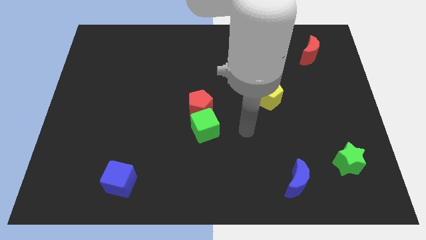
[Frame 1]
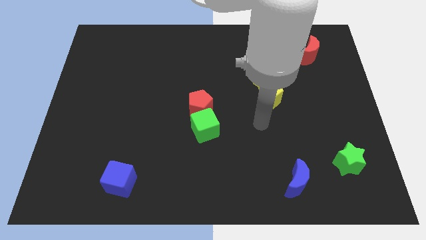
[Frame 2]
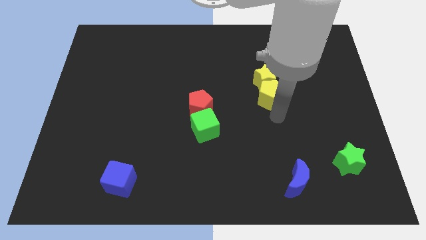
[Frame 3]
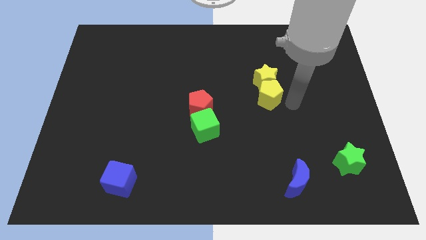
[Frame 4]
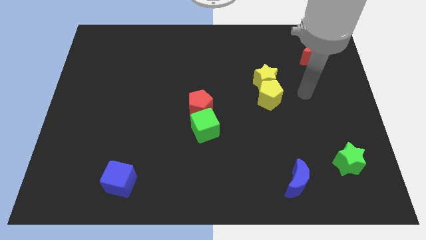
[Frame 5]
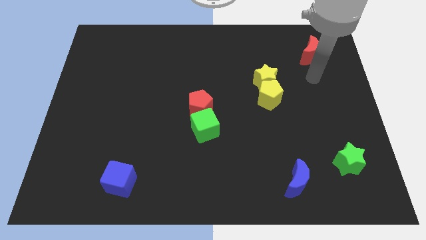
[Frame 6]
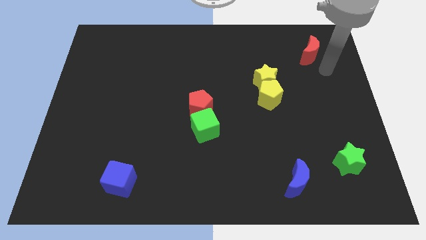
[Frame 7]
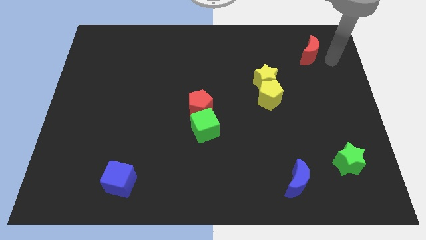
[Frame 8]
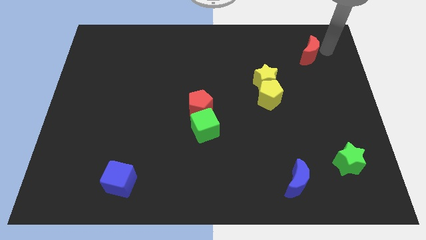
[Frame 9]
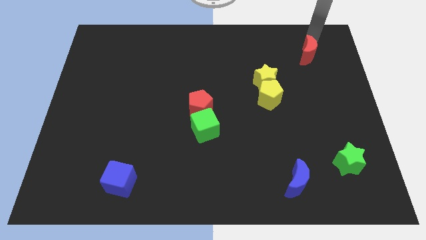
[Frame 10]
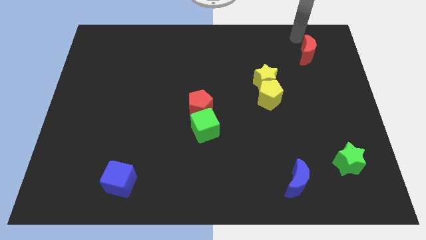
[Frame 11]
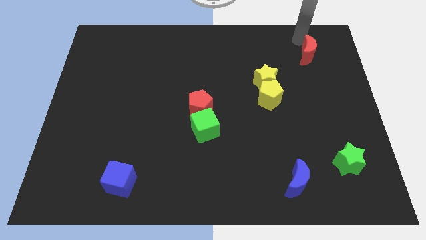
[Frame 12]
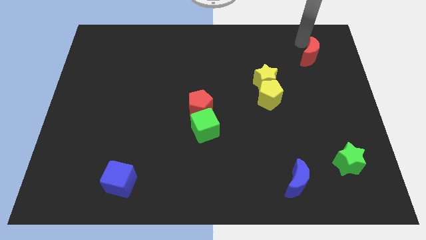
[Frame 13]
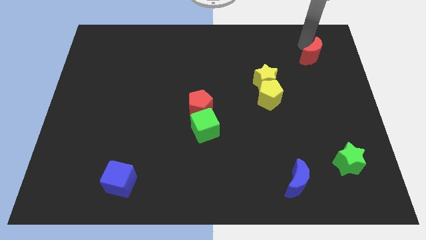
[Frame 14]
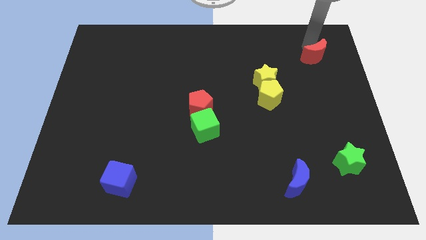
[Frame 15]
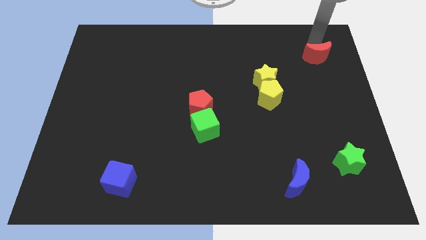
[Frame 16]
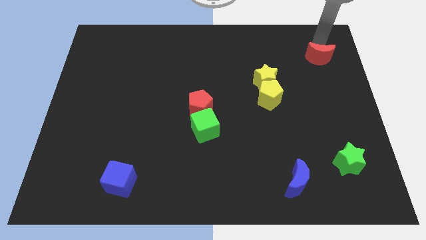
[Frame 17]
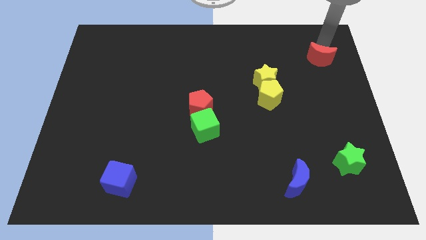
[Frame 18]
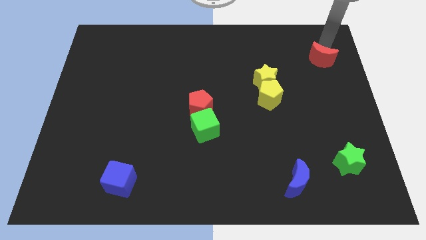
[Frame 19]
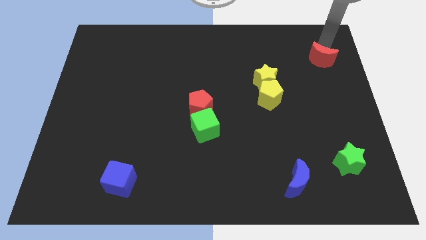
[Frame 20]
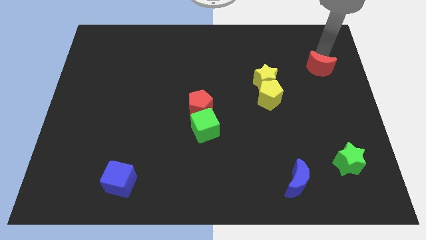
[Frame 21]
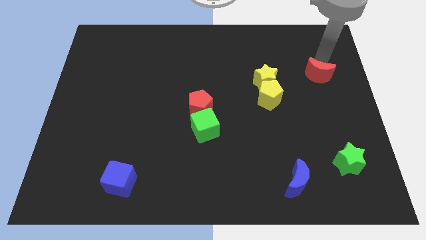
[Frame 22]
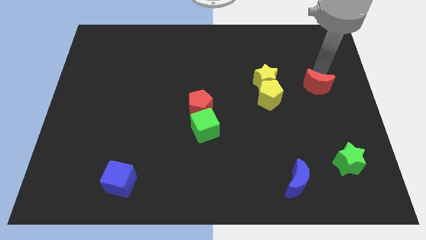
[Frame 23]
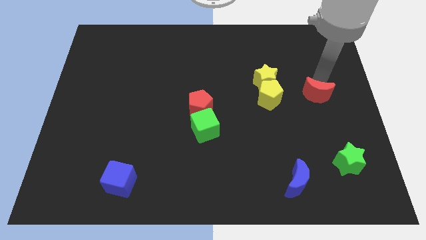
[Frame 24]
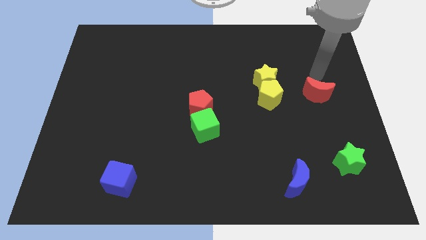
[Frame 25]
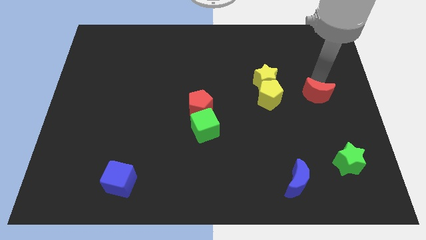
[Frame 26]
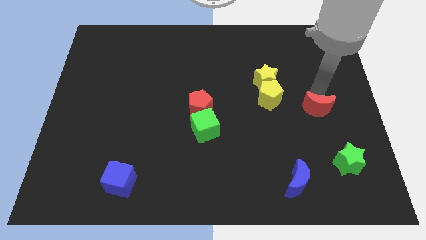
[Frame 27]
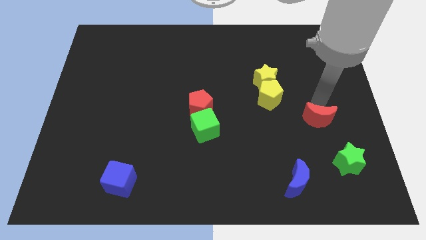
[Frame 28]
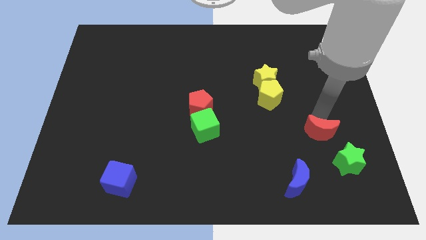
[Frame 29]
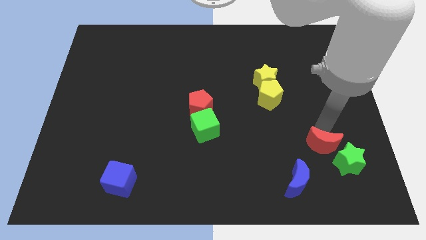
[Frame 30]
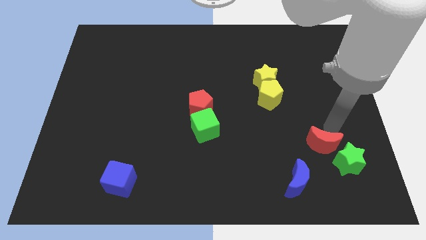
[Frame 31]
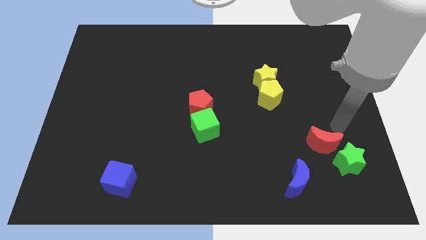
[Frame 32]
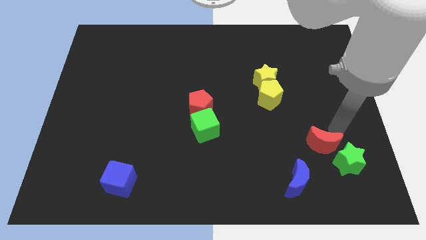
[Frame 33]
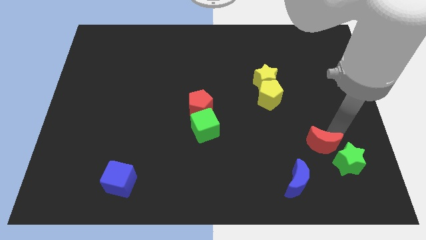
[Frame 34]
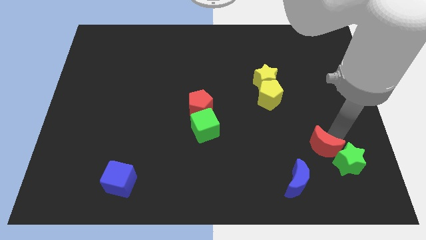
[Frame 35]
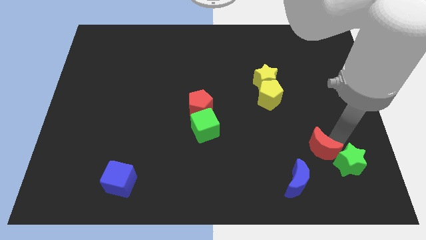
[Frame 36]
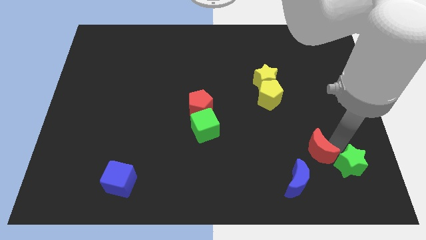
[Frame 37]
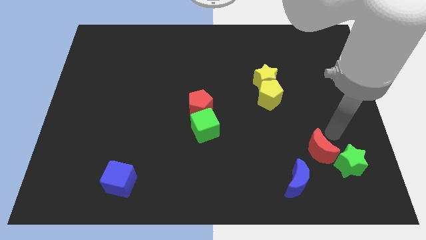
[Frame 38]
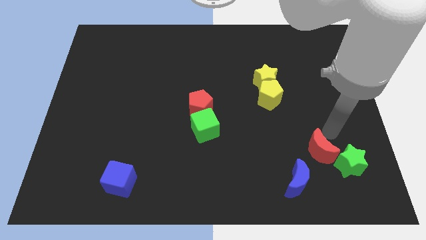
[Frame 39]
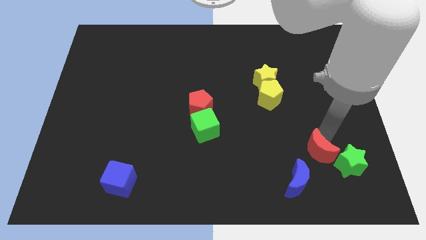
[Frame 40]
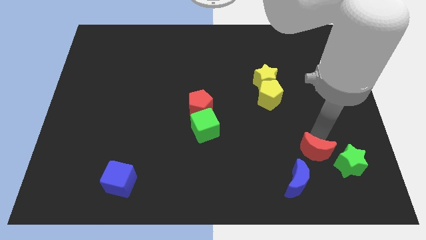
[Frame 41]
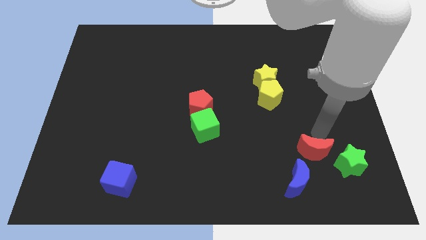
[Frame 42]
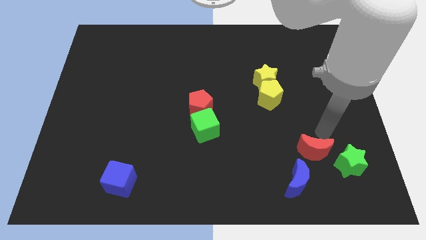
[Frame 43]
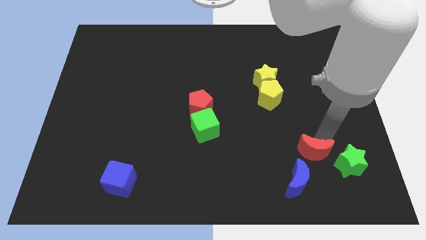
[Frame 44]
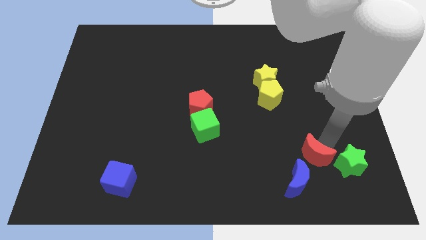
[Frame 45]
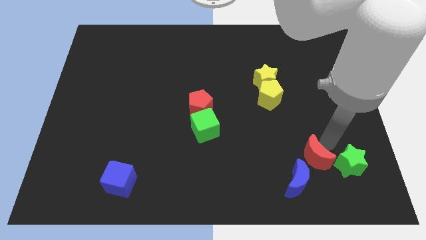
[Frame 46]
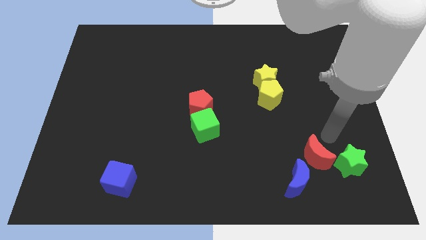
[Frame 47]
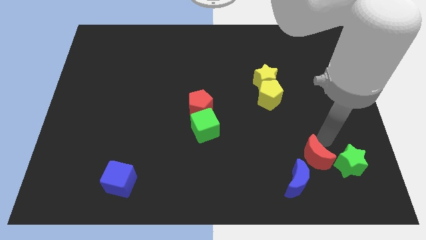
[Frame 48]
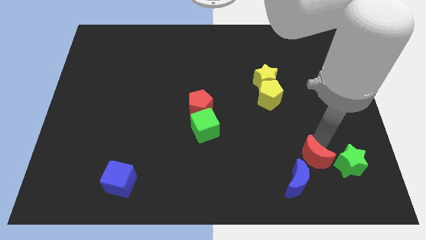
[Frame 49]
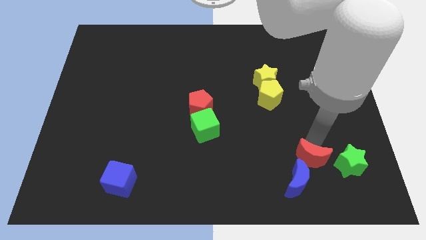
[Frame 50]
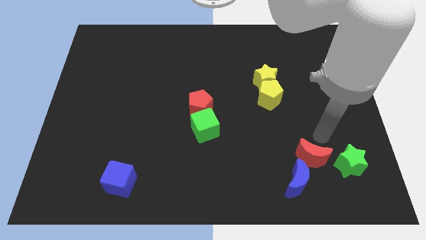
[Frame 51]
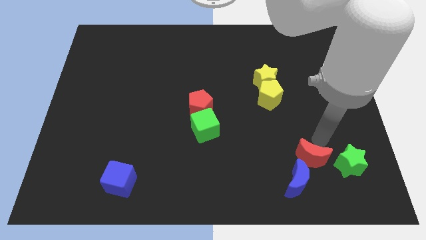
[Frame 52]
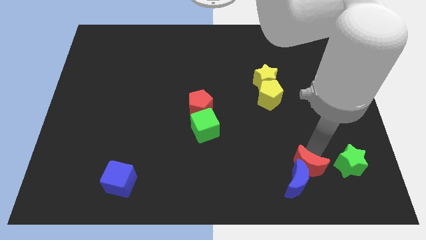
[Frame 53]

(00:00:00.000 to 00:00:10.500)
slide the red moon towards the blue moon

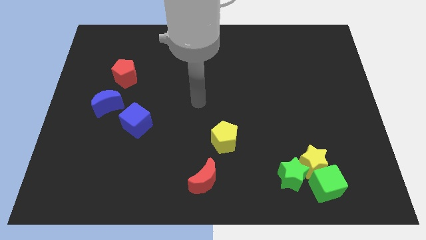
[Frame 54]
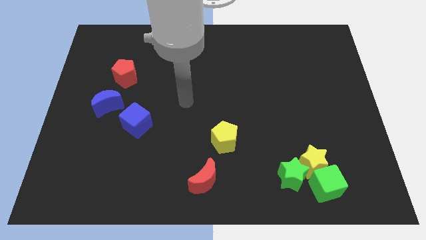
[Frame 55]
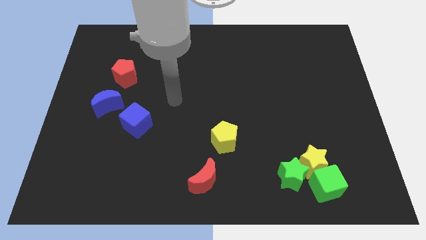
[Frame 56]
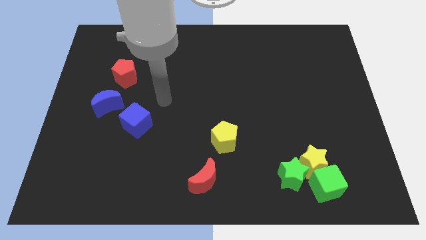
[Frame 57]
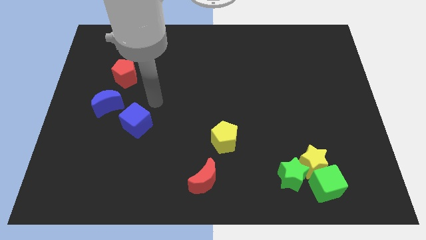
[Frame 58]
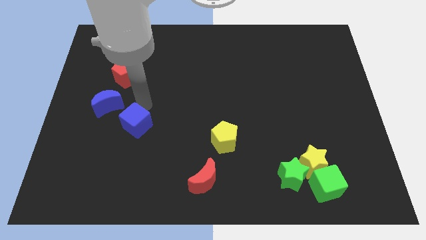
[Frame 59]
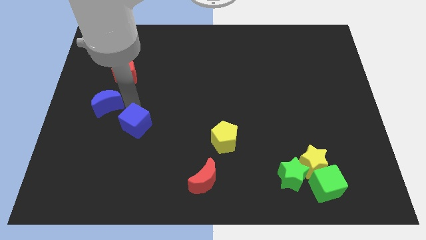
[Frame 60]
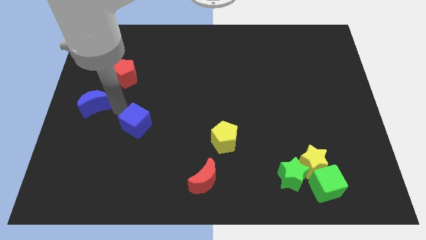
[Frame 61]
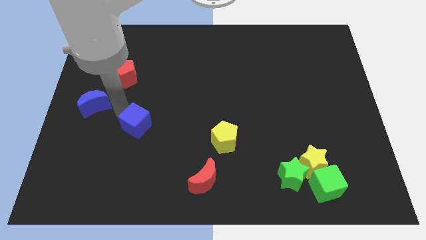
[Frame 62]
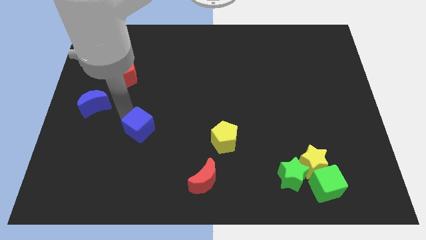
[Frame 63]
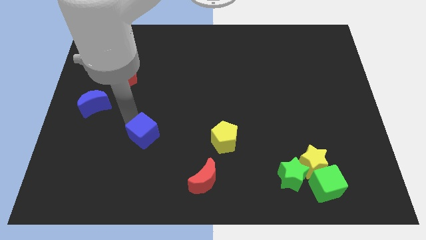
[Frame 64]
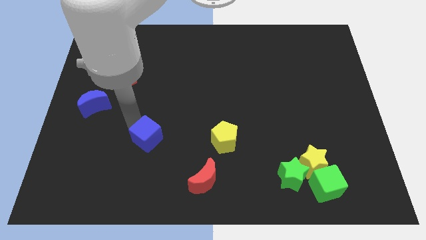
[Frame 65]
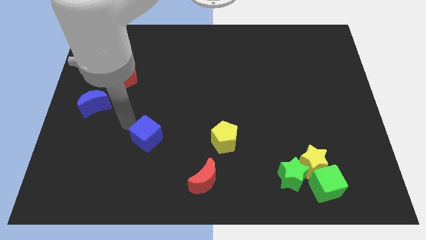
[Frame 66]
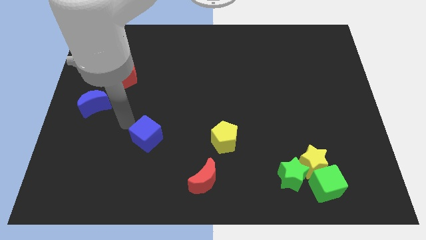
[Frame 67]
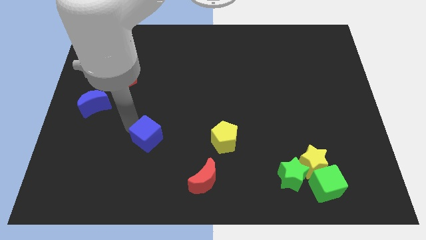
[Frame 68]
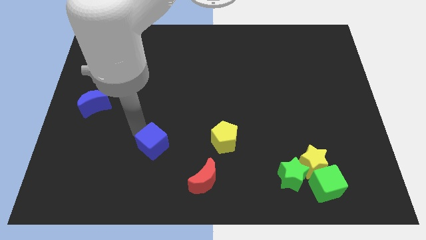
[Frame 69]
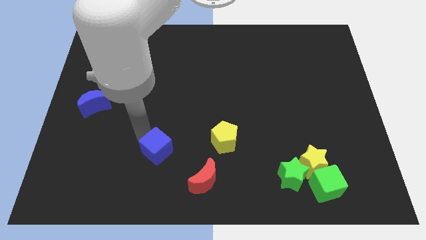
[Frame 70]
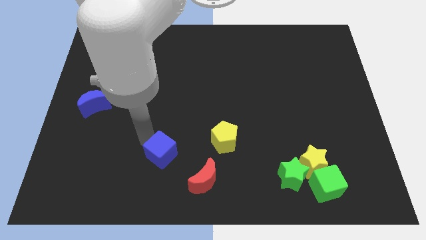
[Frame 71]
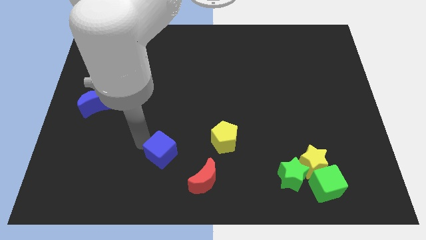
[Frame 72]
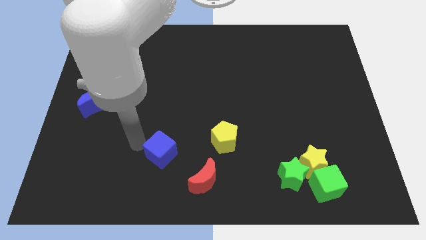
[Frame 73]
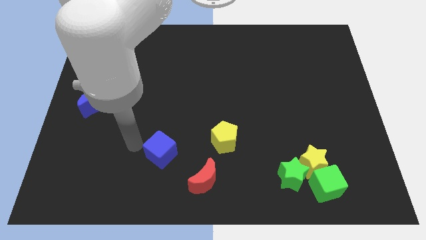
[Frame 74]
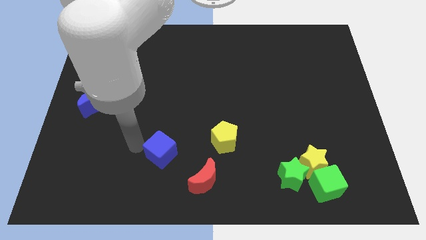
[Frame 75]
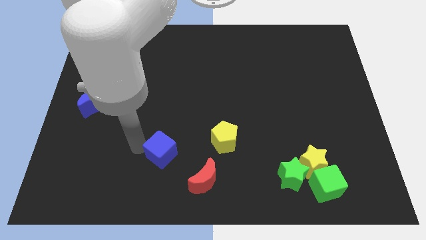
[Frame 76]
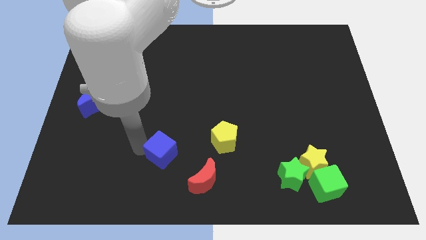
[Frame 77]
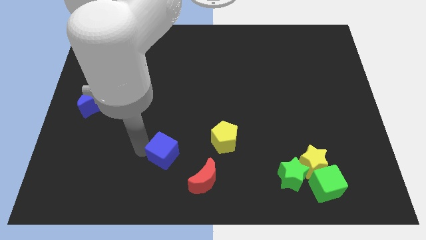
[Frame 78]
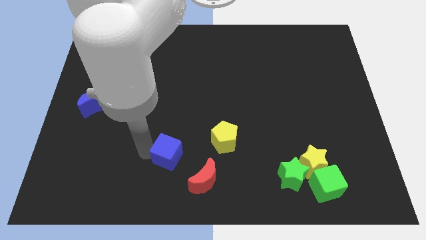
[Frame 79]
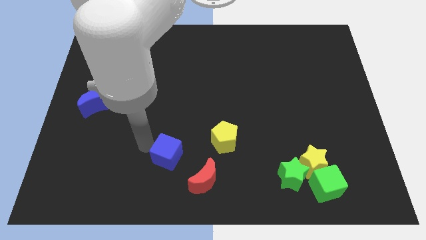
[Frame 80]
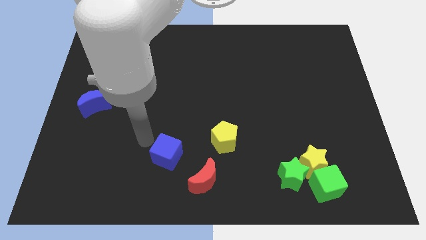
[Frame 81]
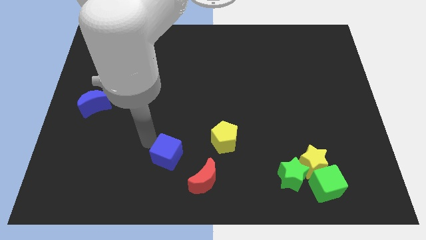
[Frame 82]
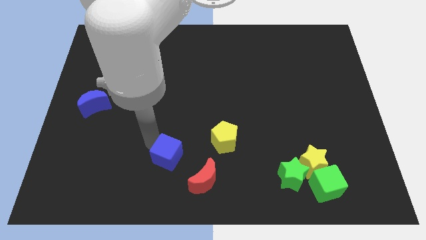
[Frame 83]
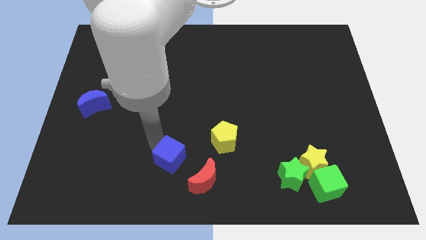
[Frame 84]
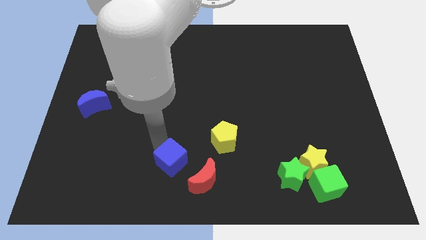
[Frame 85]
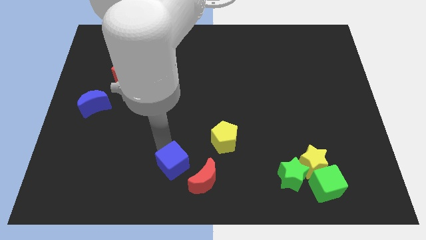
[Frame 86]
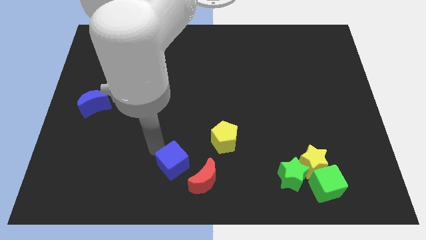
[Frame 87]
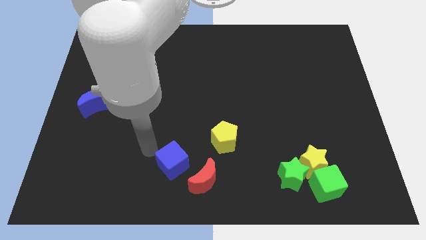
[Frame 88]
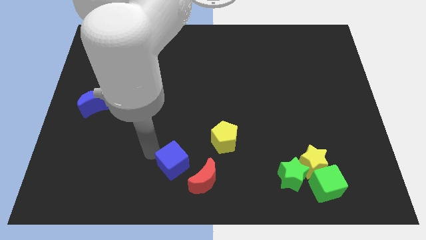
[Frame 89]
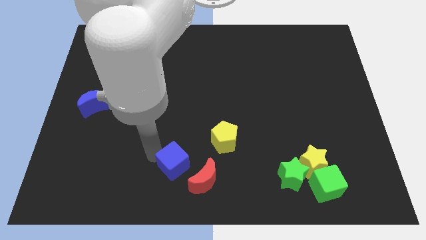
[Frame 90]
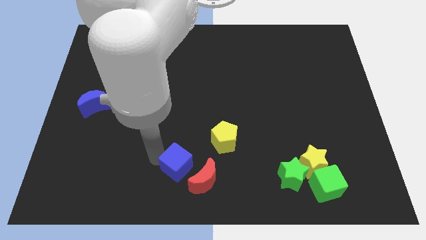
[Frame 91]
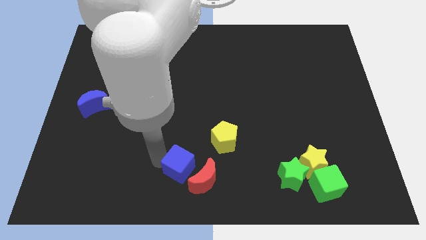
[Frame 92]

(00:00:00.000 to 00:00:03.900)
push the blue cube next to the red moon
